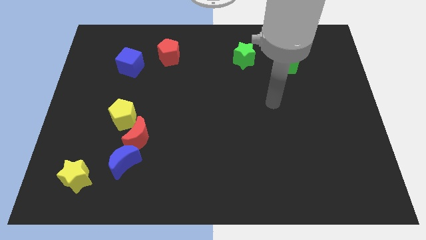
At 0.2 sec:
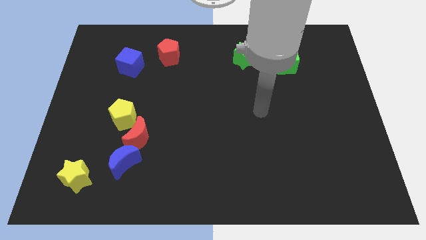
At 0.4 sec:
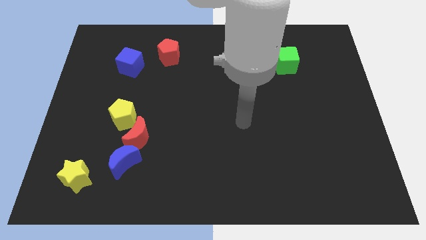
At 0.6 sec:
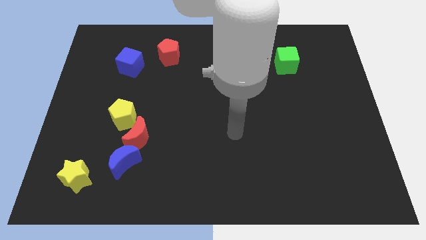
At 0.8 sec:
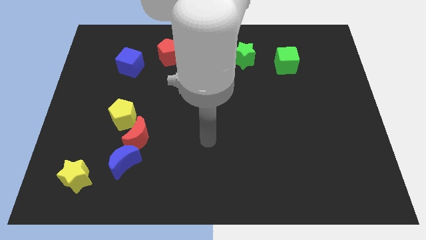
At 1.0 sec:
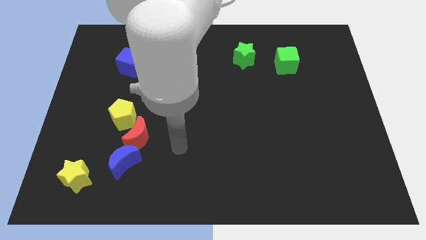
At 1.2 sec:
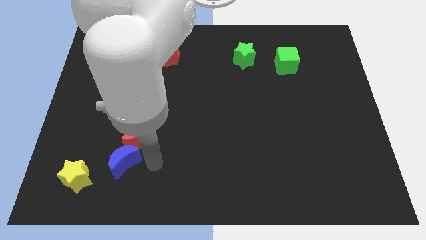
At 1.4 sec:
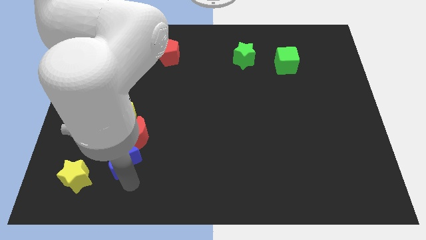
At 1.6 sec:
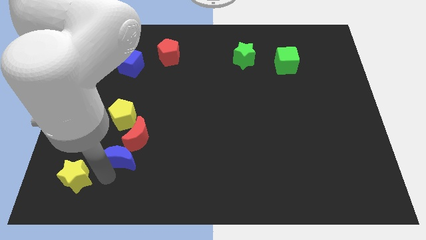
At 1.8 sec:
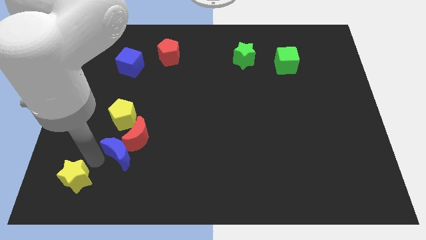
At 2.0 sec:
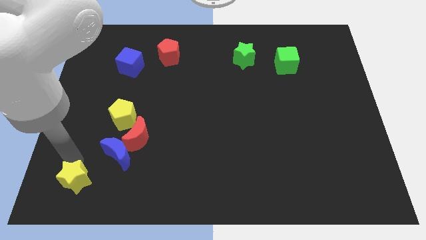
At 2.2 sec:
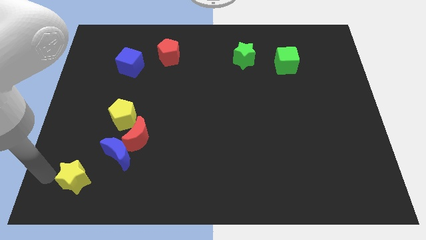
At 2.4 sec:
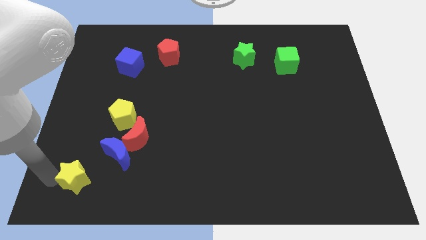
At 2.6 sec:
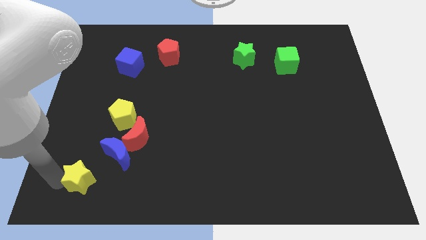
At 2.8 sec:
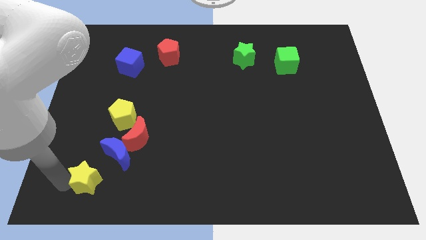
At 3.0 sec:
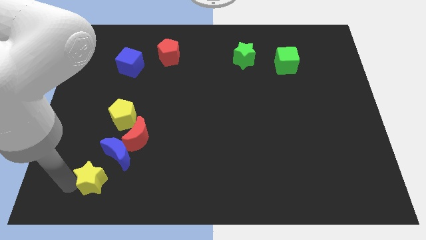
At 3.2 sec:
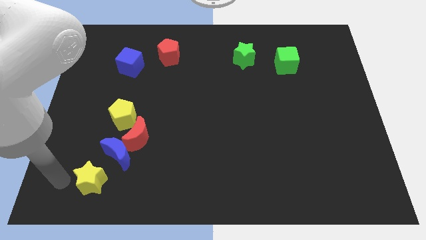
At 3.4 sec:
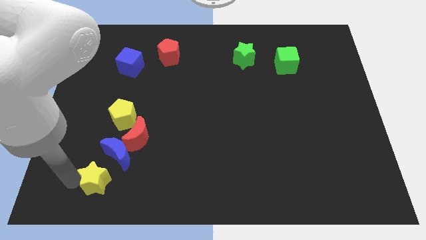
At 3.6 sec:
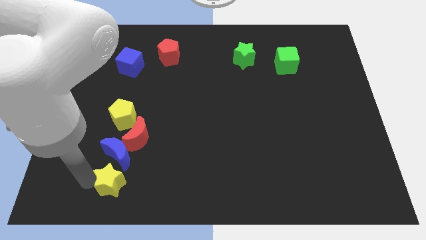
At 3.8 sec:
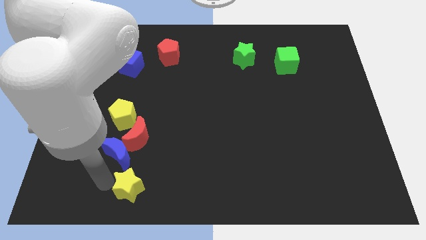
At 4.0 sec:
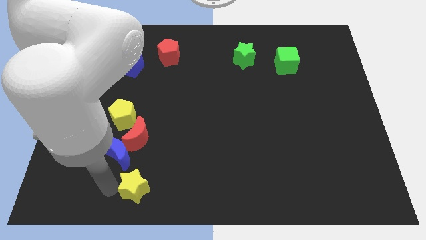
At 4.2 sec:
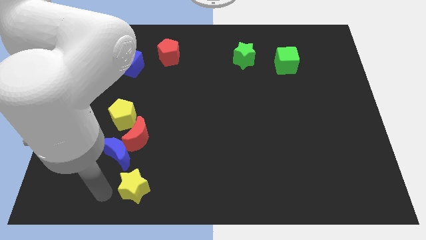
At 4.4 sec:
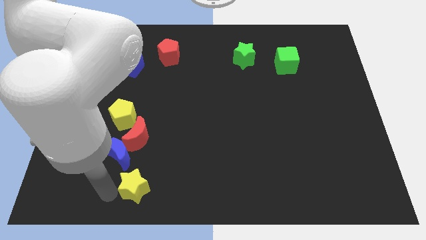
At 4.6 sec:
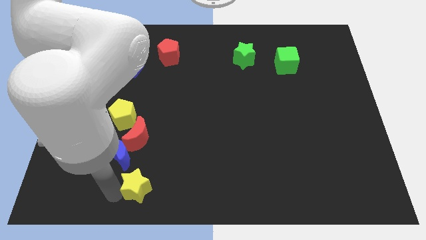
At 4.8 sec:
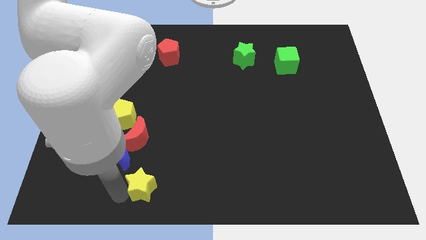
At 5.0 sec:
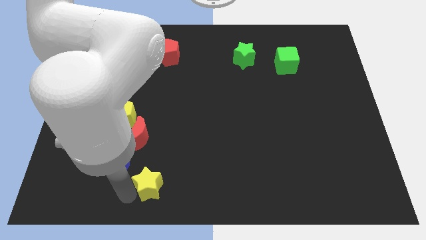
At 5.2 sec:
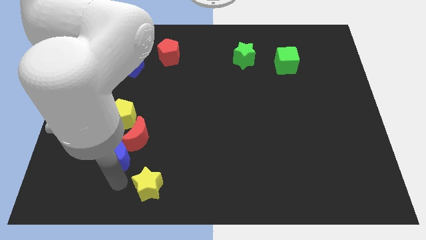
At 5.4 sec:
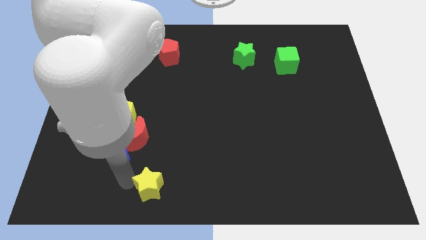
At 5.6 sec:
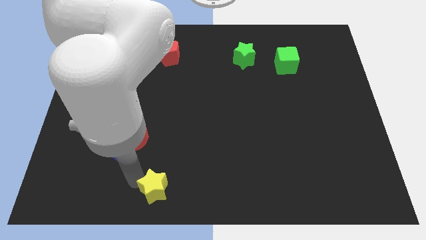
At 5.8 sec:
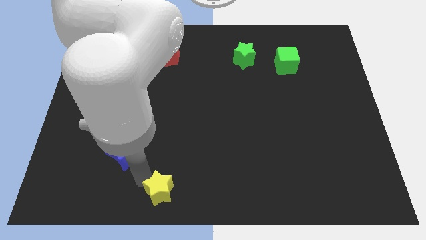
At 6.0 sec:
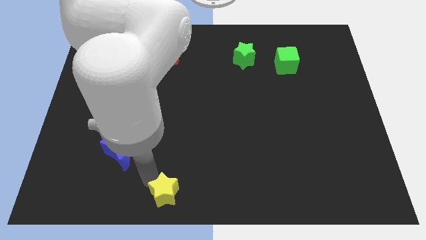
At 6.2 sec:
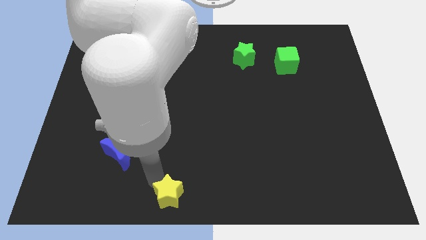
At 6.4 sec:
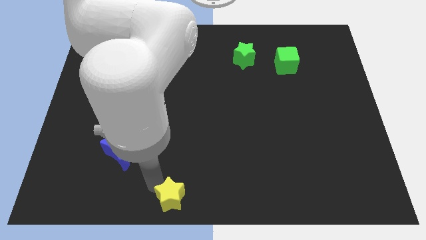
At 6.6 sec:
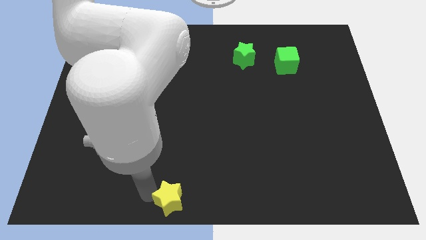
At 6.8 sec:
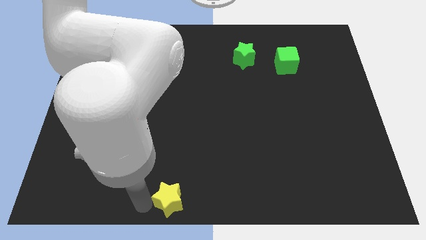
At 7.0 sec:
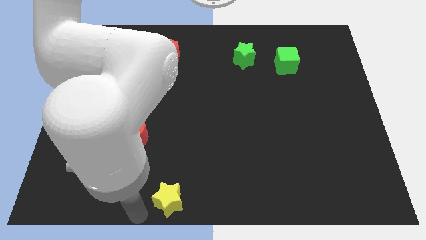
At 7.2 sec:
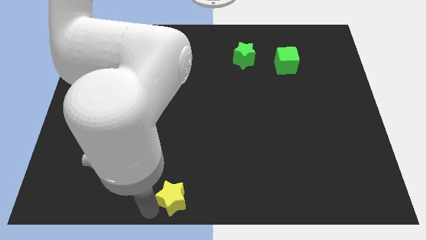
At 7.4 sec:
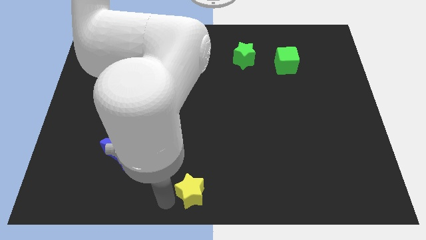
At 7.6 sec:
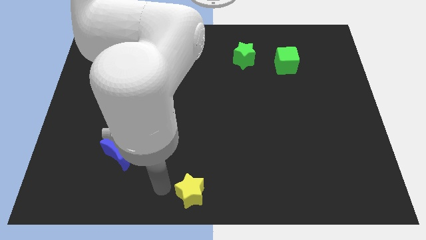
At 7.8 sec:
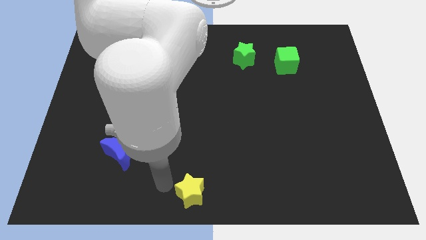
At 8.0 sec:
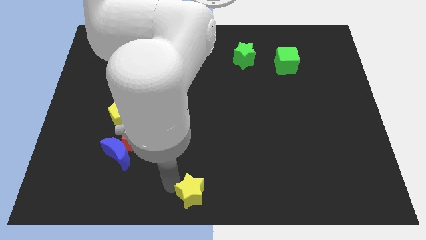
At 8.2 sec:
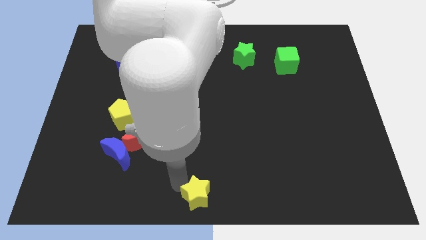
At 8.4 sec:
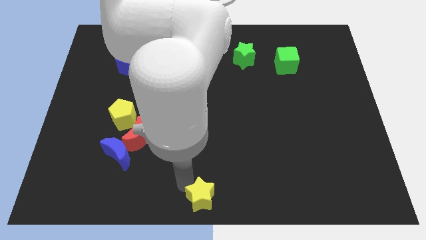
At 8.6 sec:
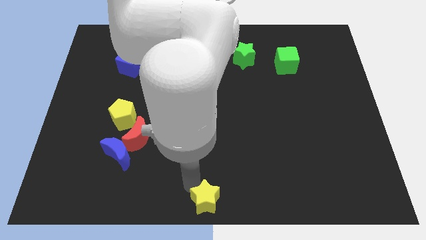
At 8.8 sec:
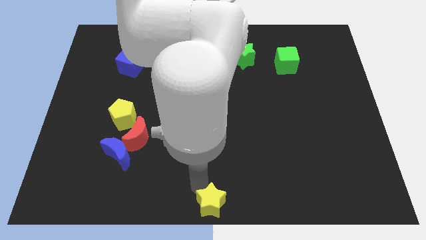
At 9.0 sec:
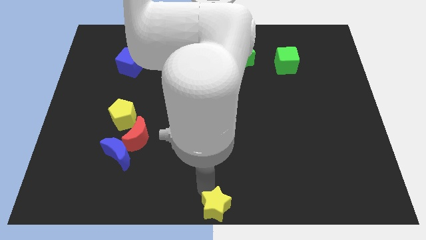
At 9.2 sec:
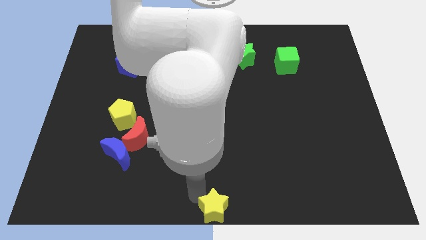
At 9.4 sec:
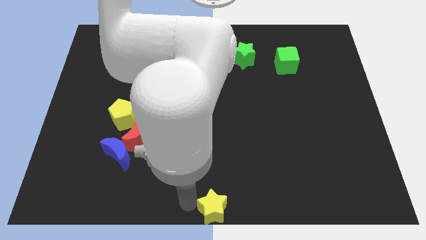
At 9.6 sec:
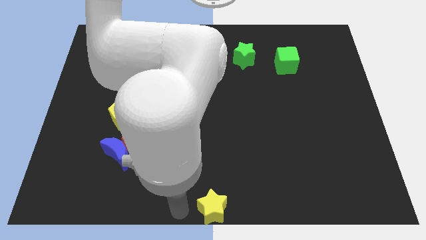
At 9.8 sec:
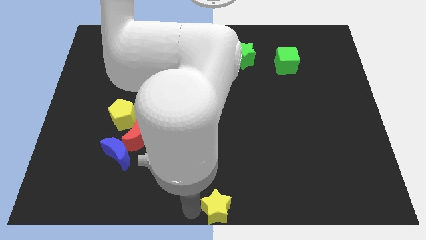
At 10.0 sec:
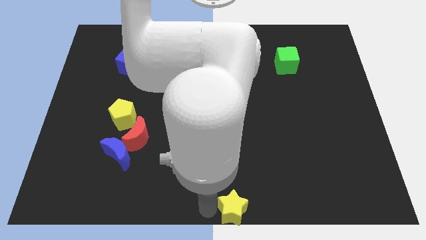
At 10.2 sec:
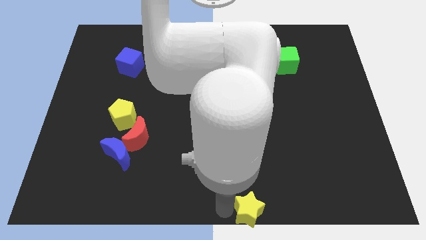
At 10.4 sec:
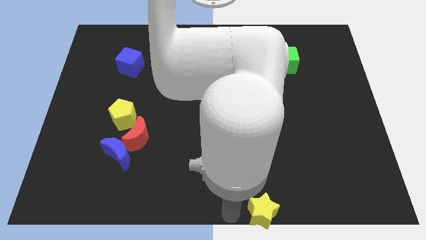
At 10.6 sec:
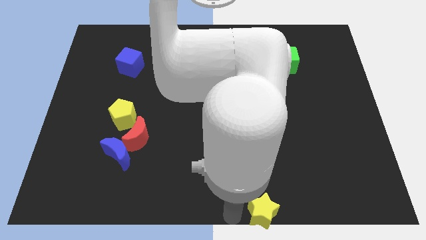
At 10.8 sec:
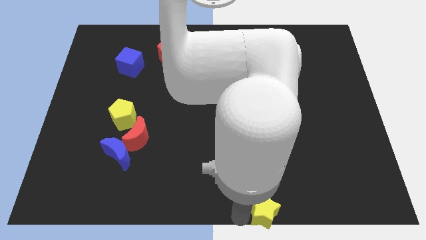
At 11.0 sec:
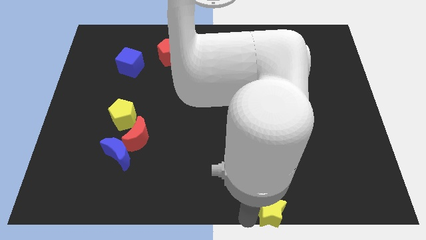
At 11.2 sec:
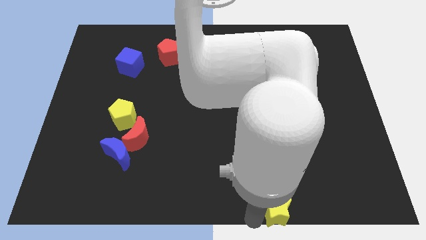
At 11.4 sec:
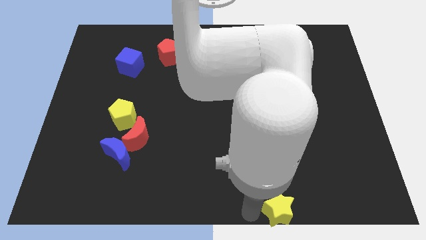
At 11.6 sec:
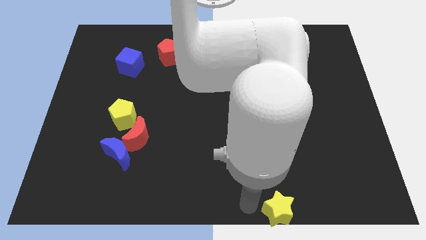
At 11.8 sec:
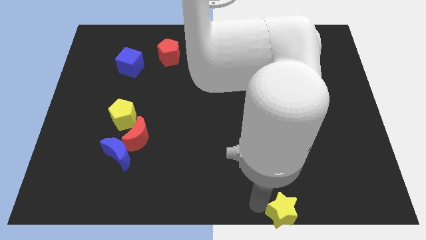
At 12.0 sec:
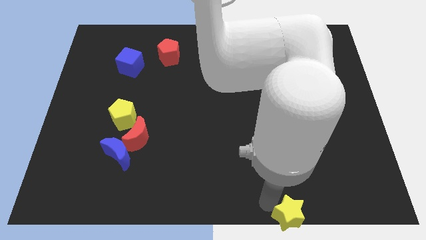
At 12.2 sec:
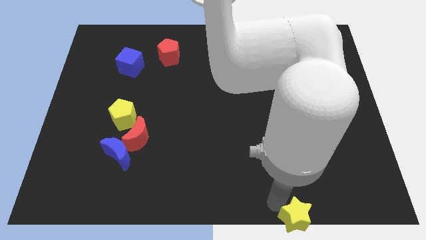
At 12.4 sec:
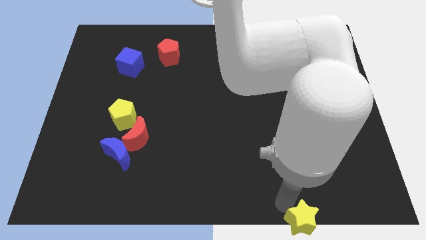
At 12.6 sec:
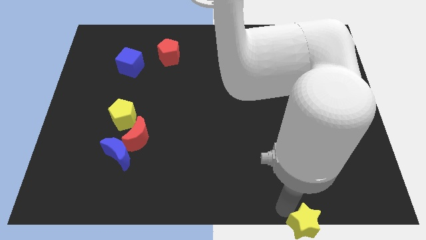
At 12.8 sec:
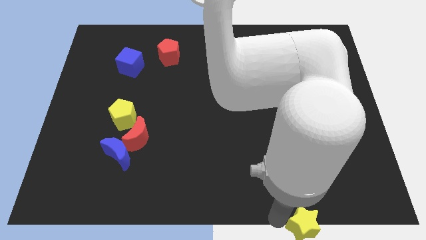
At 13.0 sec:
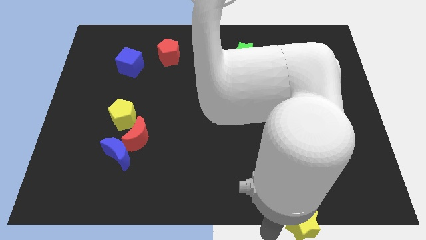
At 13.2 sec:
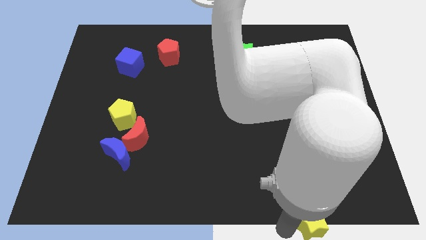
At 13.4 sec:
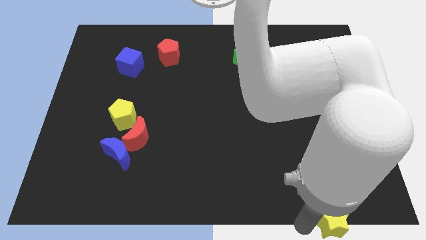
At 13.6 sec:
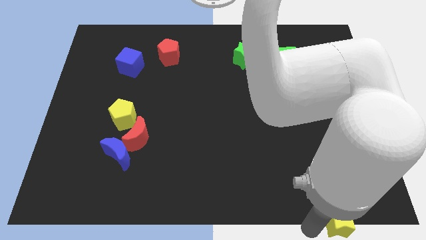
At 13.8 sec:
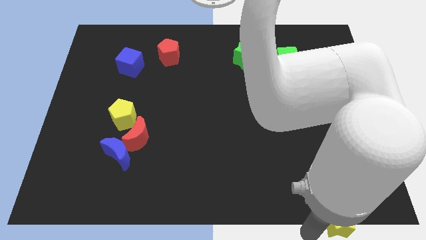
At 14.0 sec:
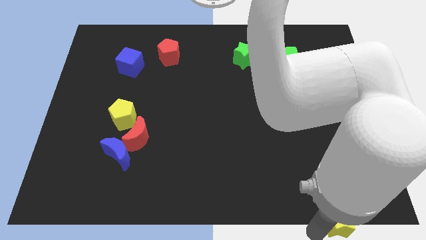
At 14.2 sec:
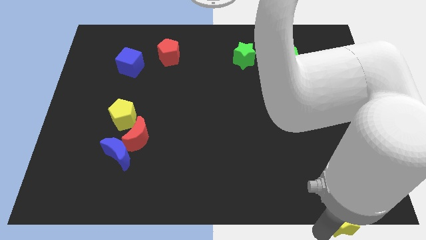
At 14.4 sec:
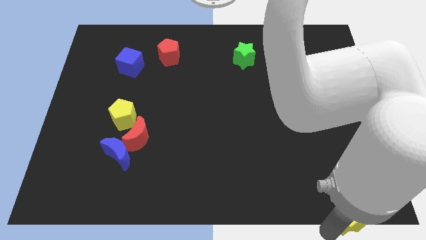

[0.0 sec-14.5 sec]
slide the yellow star to the bottom right of the board
